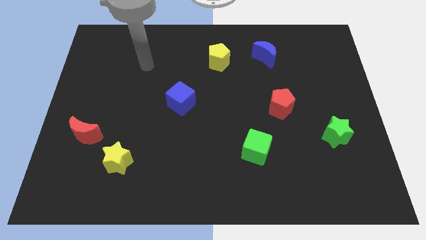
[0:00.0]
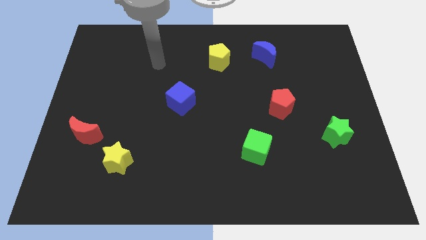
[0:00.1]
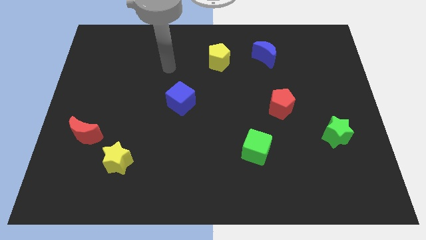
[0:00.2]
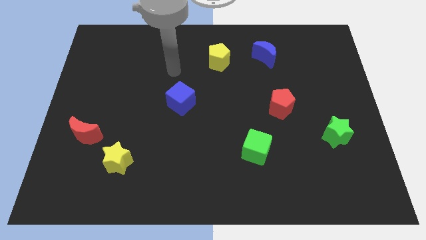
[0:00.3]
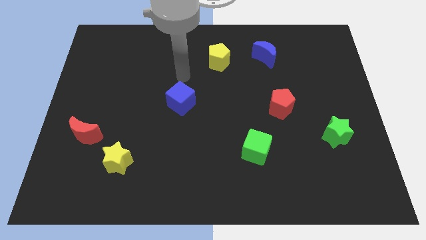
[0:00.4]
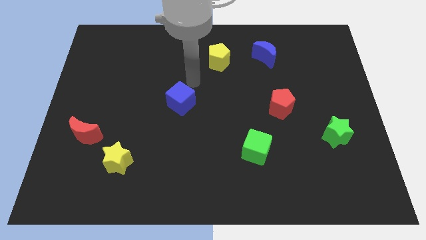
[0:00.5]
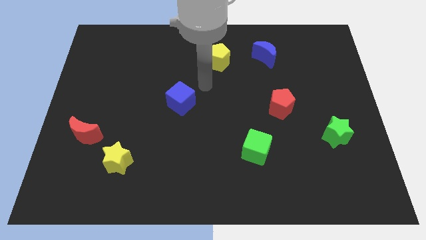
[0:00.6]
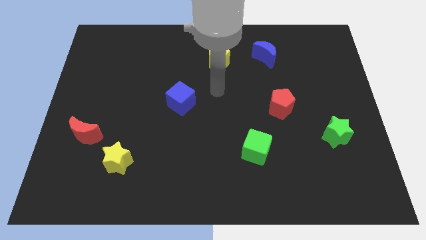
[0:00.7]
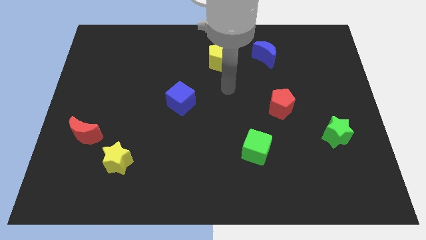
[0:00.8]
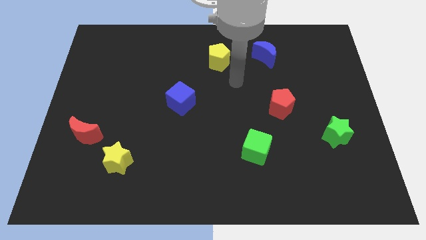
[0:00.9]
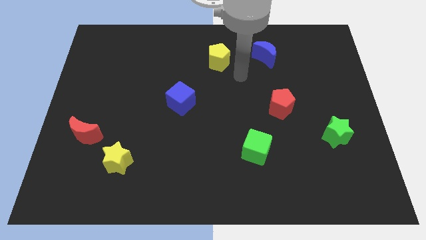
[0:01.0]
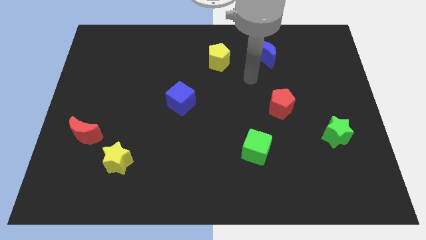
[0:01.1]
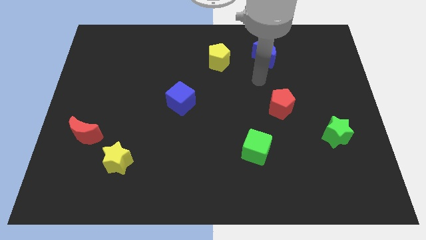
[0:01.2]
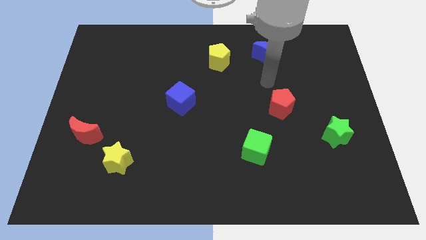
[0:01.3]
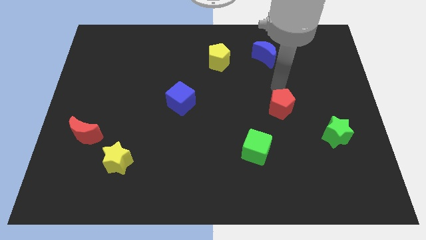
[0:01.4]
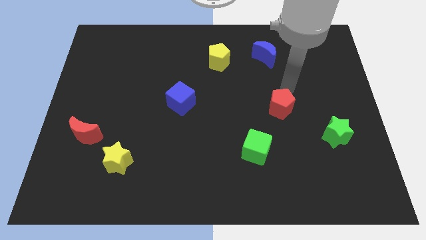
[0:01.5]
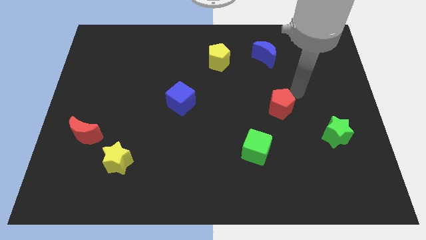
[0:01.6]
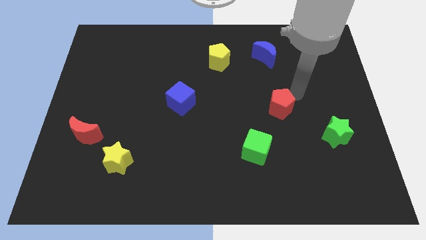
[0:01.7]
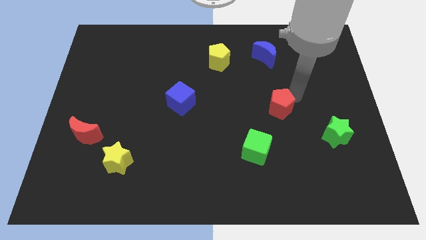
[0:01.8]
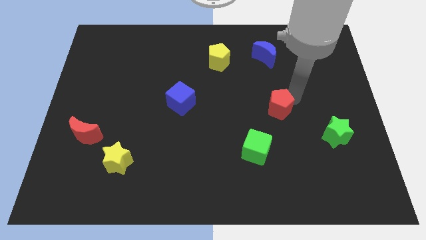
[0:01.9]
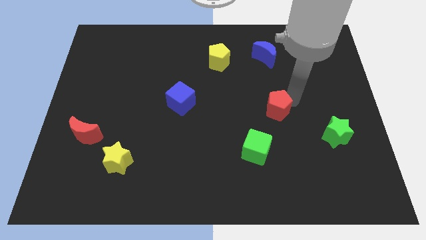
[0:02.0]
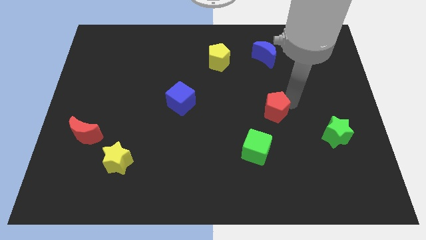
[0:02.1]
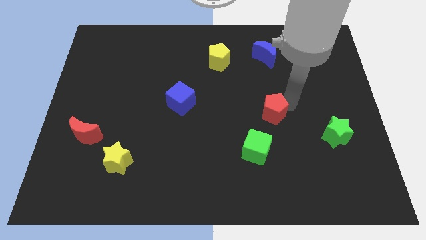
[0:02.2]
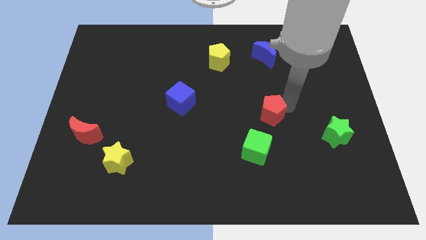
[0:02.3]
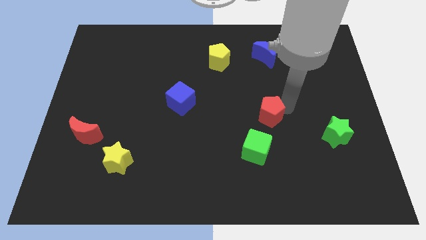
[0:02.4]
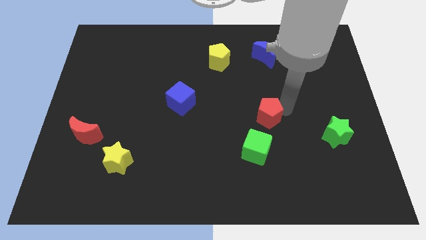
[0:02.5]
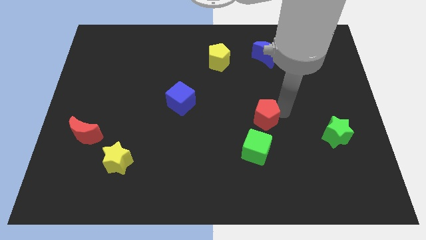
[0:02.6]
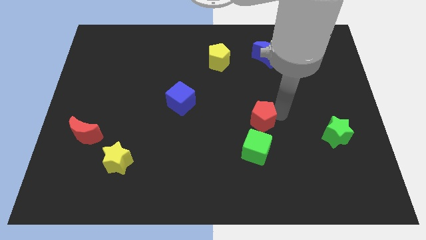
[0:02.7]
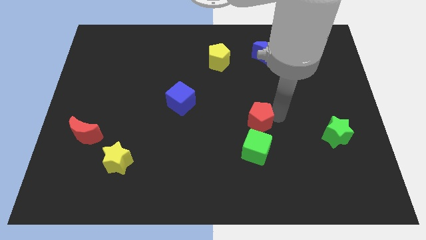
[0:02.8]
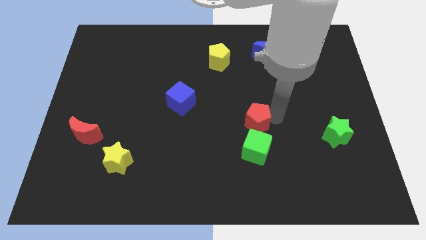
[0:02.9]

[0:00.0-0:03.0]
push the red pentagon slightly downwards and to the left diagonally

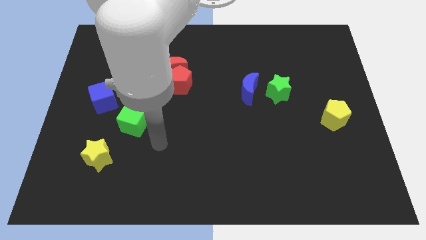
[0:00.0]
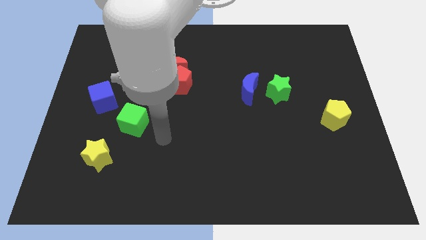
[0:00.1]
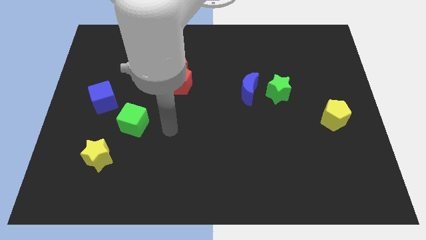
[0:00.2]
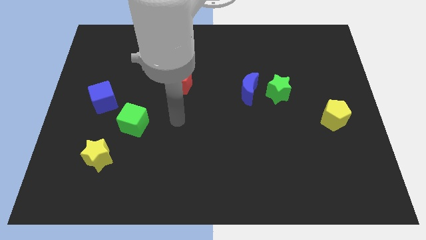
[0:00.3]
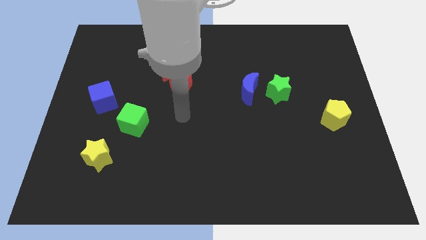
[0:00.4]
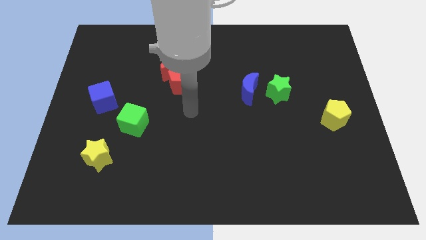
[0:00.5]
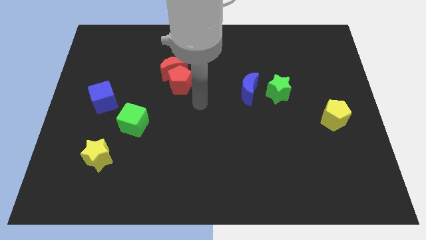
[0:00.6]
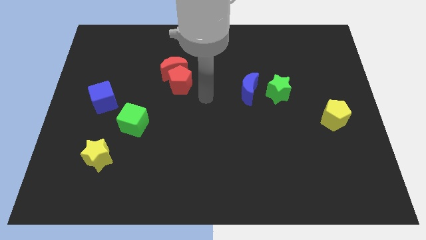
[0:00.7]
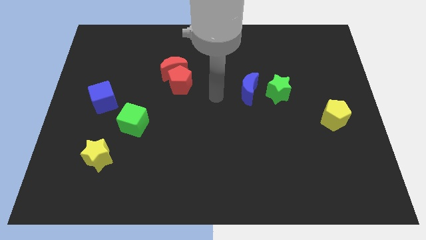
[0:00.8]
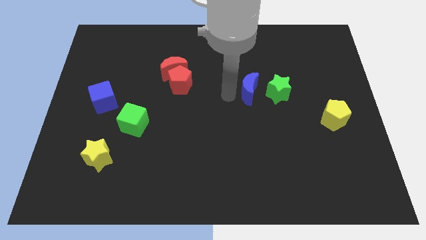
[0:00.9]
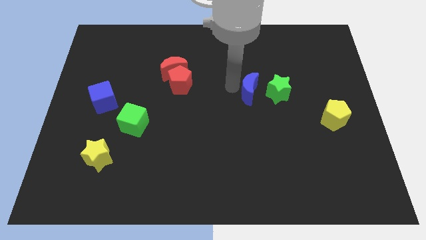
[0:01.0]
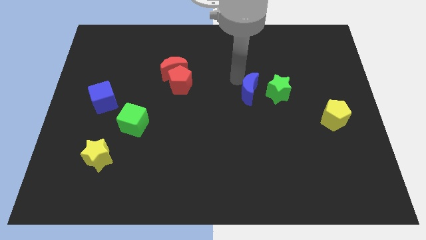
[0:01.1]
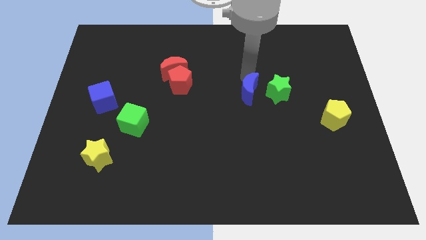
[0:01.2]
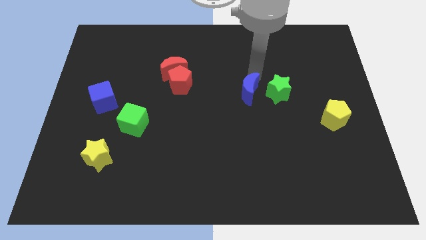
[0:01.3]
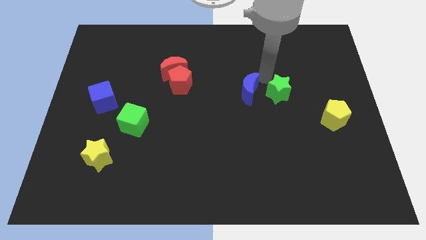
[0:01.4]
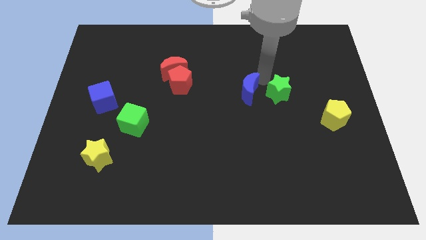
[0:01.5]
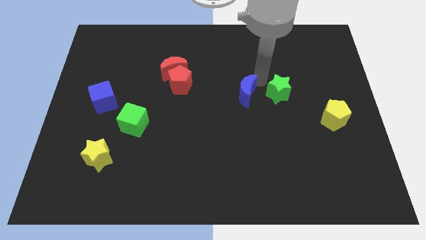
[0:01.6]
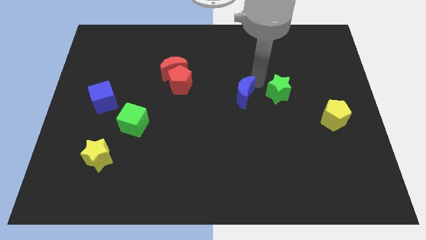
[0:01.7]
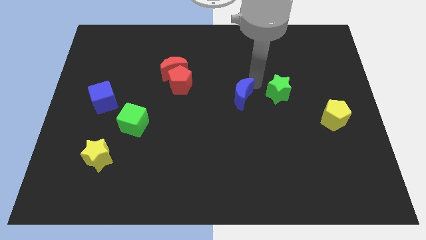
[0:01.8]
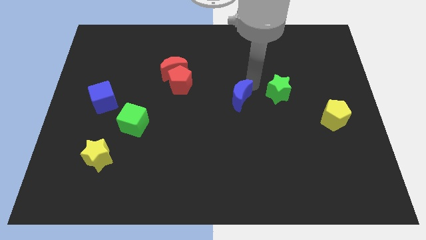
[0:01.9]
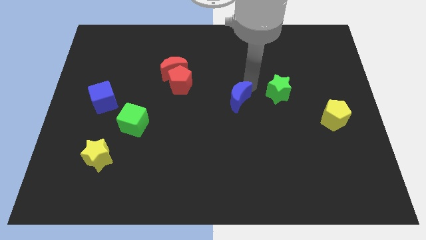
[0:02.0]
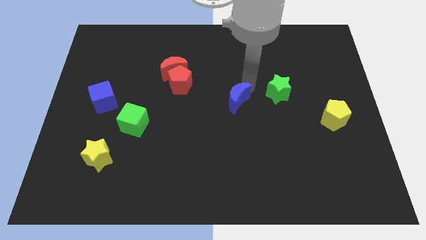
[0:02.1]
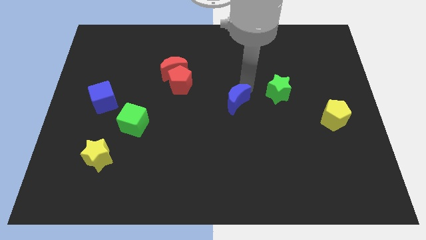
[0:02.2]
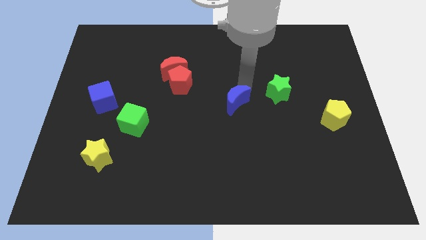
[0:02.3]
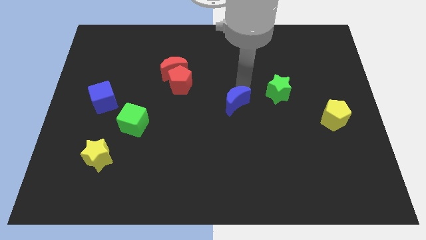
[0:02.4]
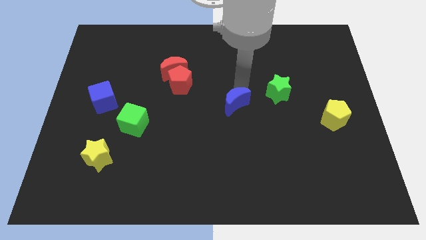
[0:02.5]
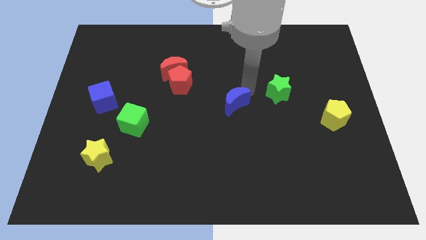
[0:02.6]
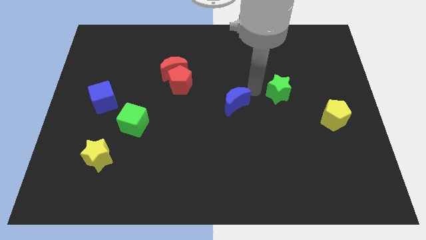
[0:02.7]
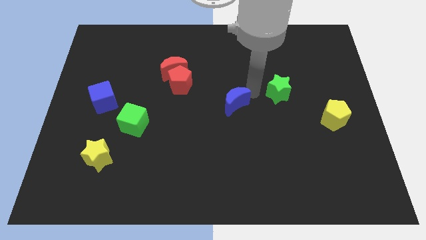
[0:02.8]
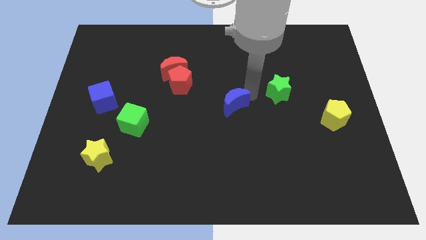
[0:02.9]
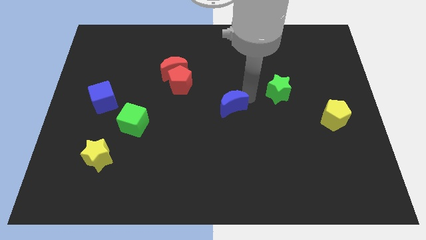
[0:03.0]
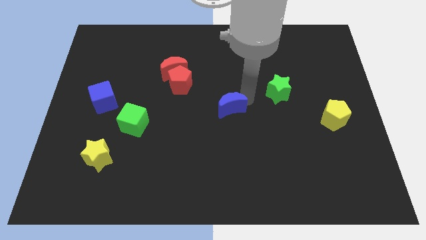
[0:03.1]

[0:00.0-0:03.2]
slightly move the blue moon downwards and left diagonally

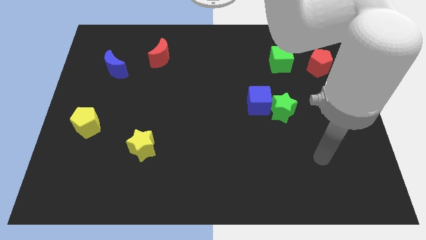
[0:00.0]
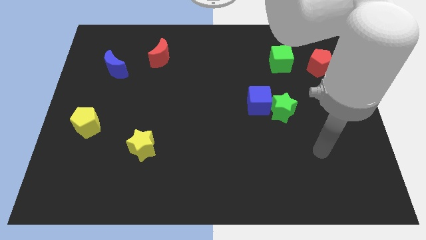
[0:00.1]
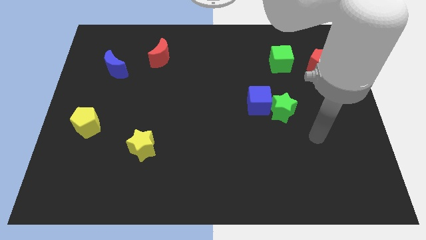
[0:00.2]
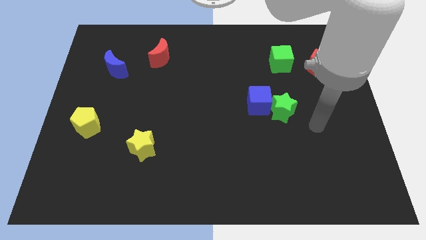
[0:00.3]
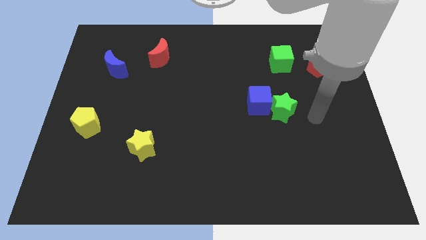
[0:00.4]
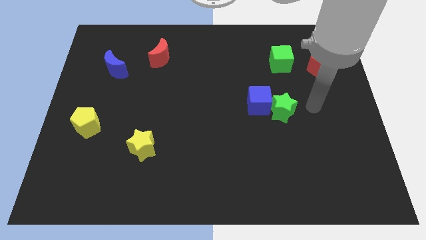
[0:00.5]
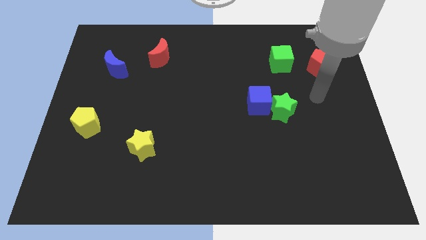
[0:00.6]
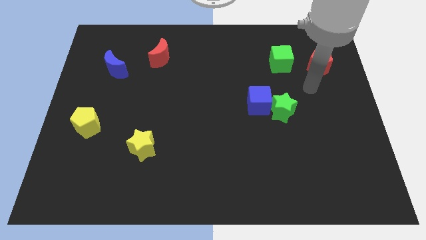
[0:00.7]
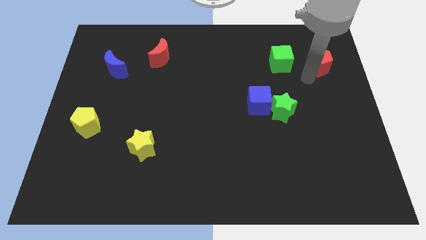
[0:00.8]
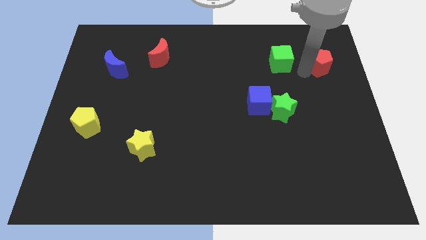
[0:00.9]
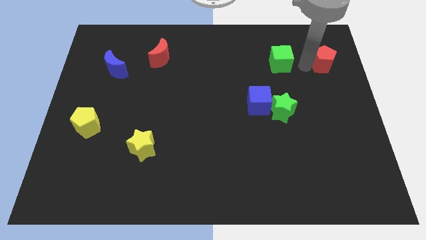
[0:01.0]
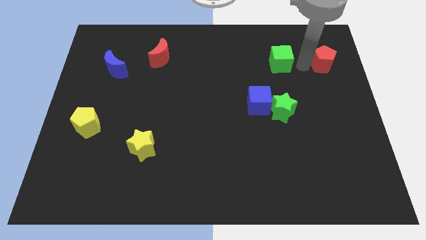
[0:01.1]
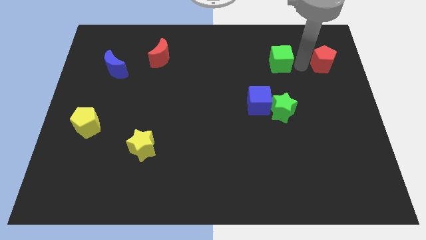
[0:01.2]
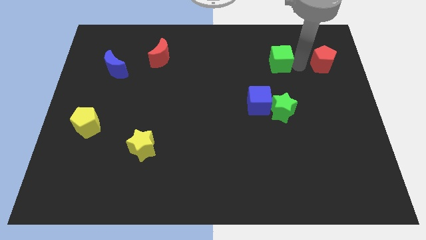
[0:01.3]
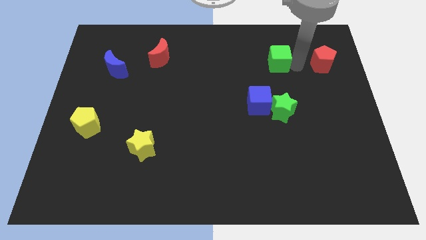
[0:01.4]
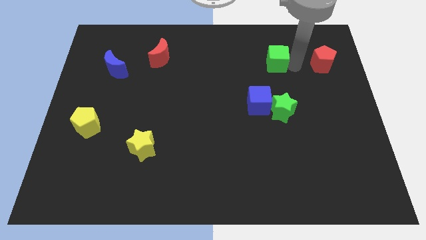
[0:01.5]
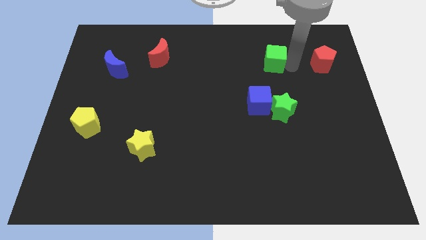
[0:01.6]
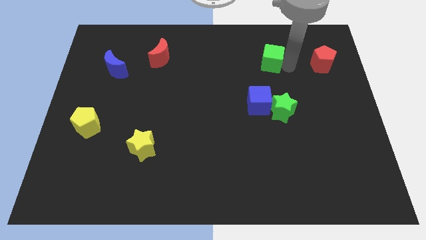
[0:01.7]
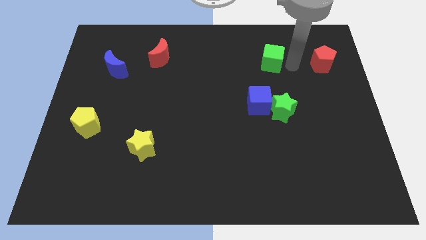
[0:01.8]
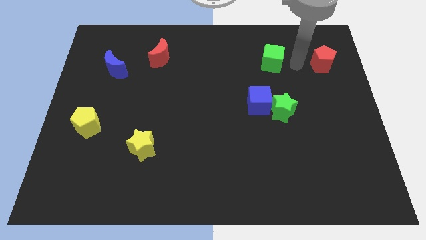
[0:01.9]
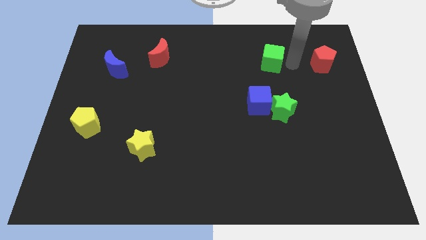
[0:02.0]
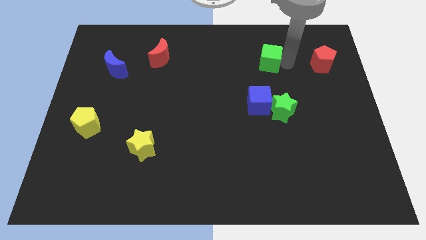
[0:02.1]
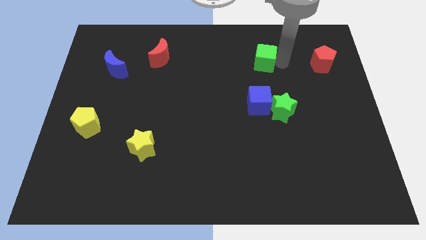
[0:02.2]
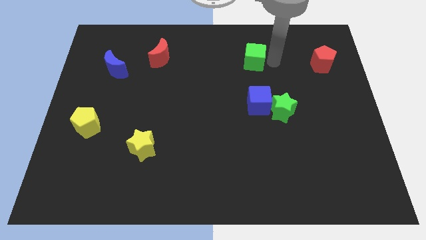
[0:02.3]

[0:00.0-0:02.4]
push the green cube to the left a little bit
